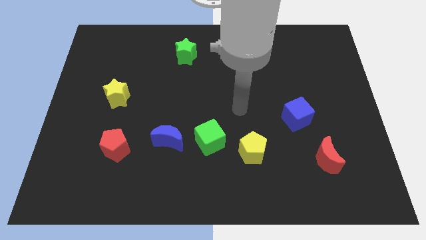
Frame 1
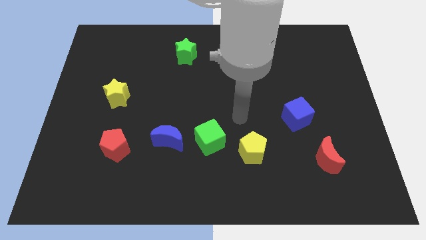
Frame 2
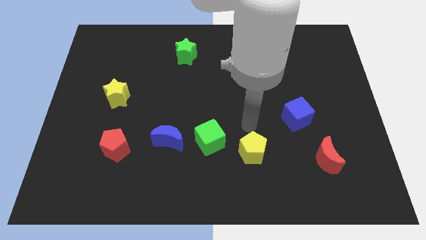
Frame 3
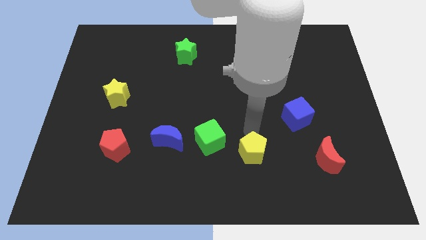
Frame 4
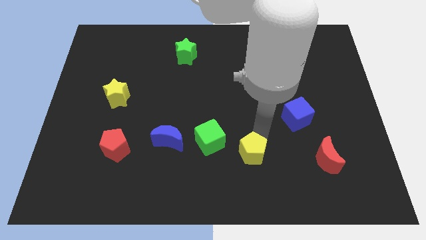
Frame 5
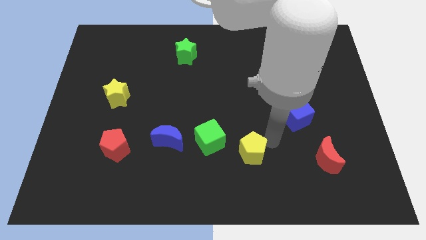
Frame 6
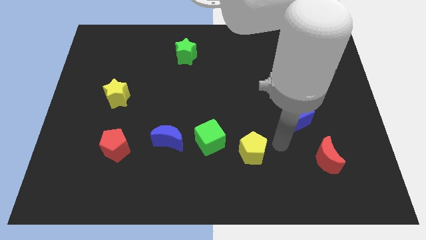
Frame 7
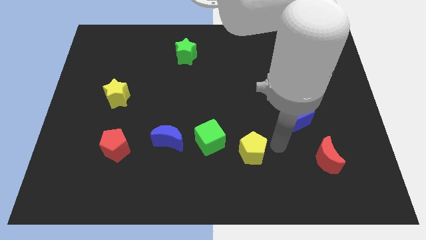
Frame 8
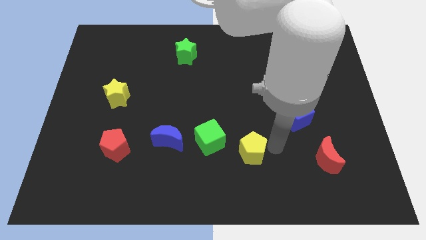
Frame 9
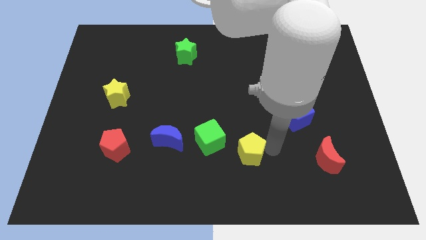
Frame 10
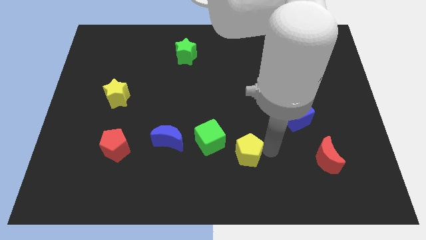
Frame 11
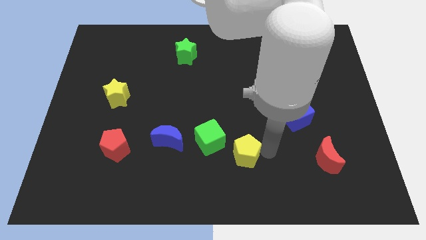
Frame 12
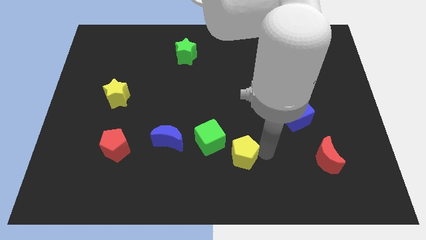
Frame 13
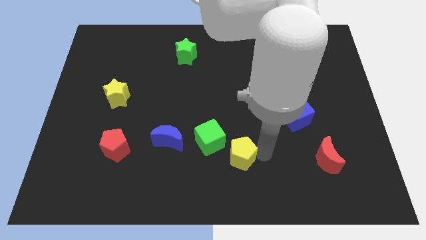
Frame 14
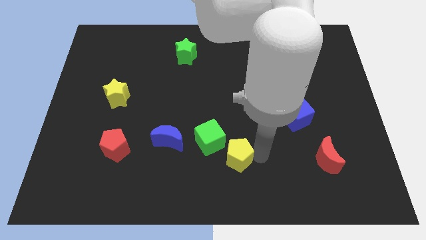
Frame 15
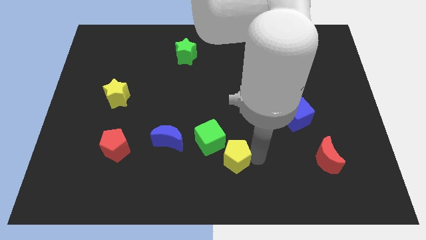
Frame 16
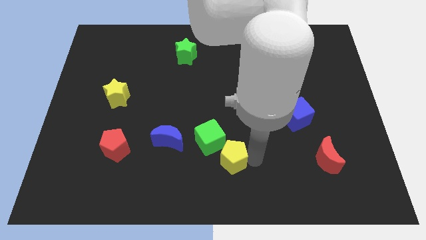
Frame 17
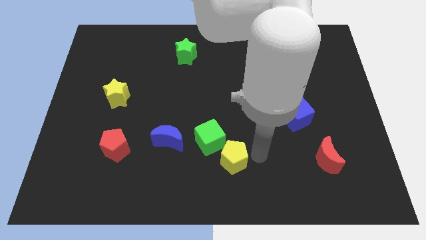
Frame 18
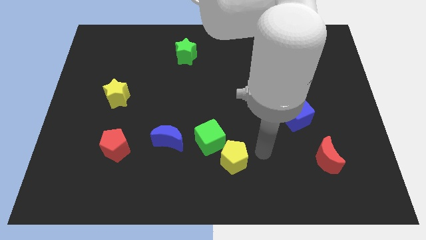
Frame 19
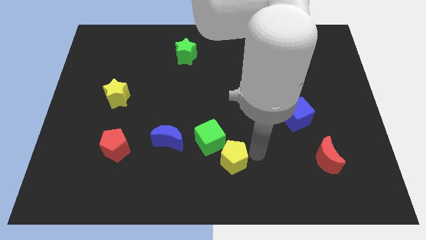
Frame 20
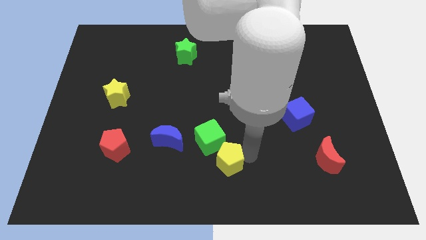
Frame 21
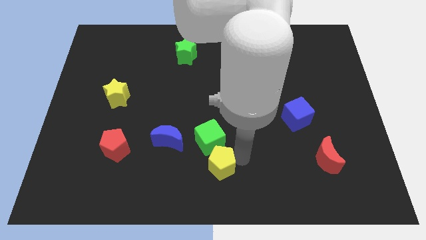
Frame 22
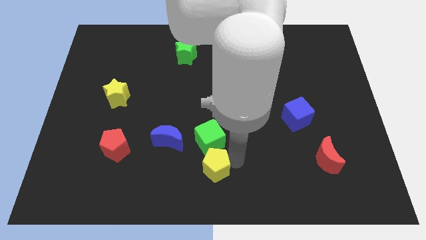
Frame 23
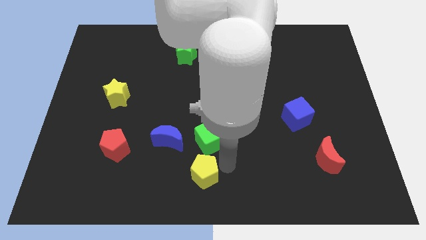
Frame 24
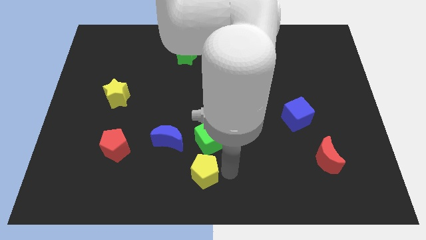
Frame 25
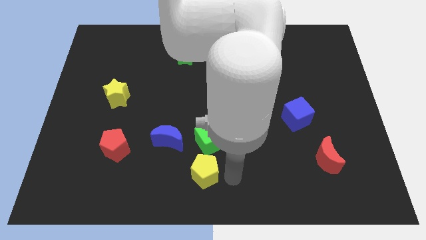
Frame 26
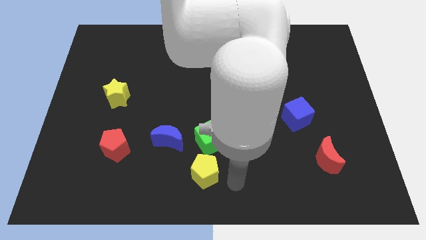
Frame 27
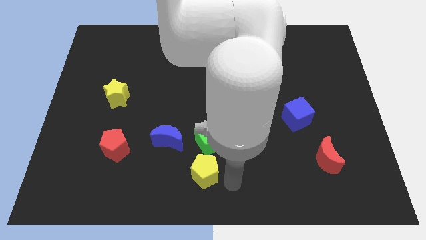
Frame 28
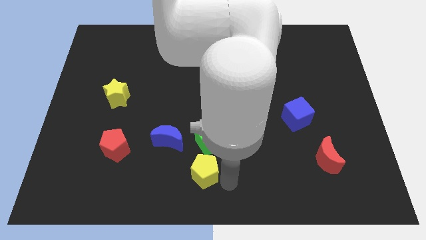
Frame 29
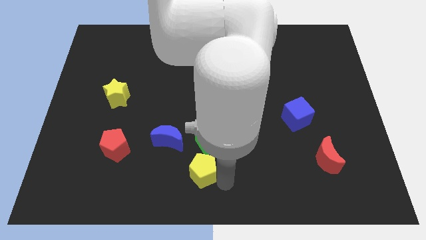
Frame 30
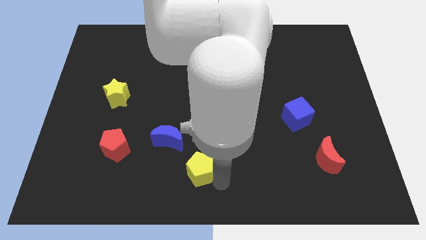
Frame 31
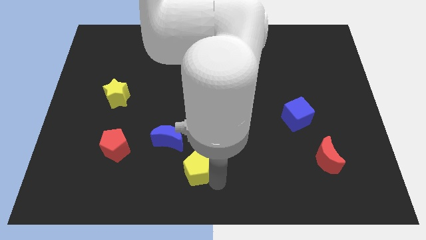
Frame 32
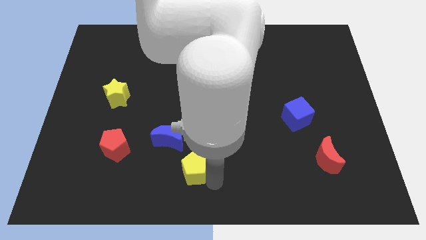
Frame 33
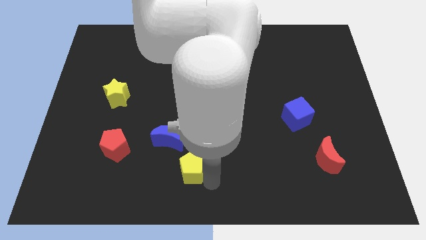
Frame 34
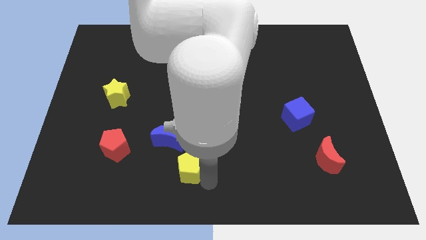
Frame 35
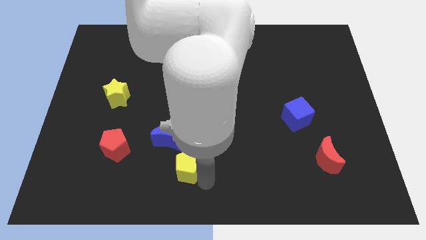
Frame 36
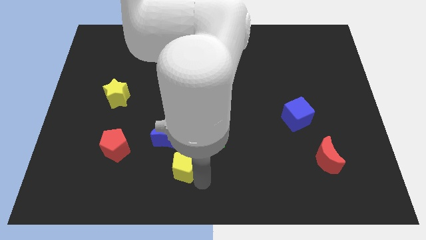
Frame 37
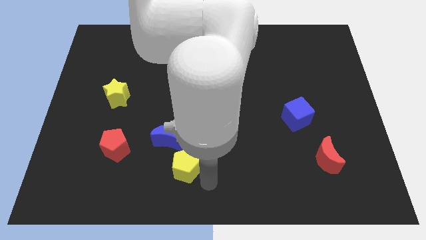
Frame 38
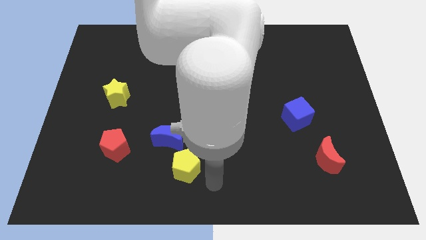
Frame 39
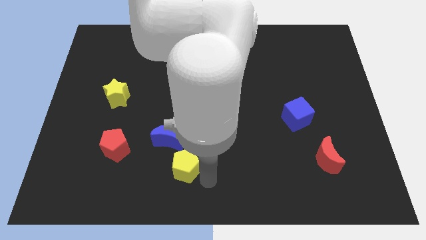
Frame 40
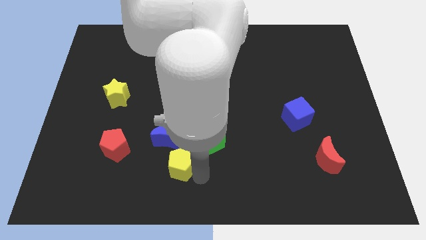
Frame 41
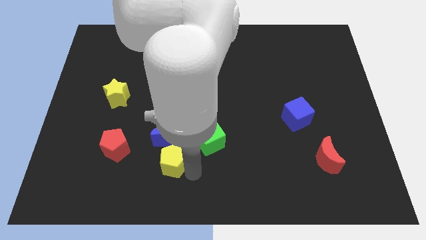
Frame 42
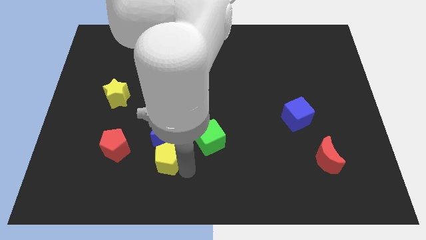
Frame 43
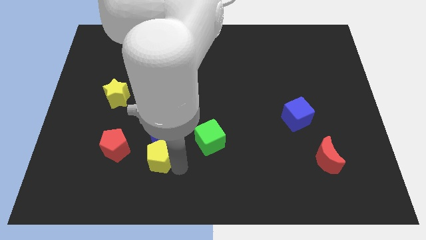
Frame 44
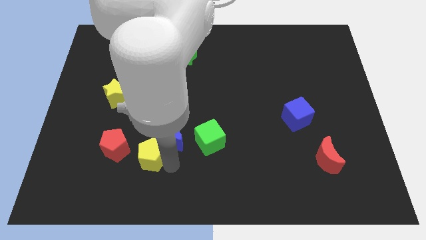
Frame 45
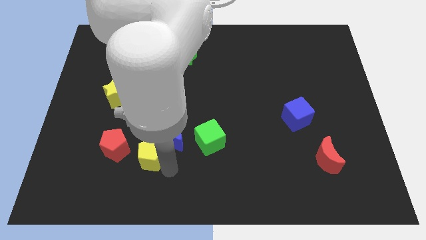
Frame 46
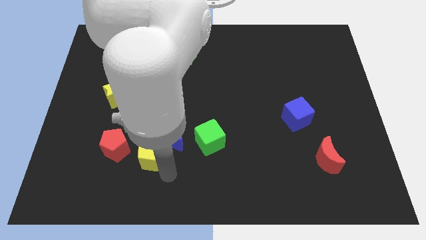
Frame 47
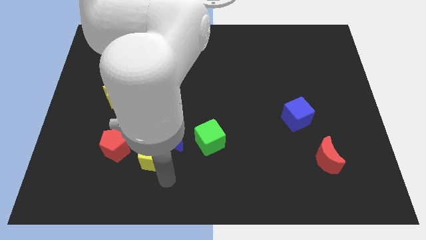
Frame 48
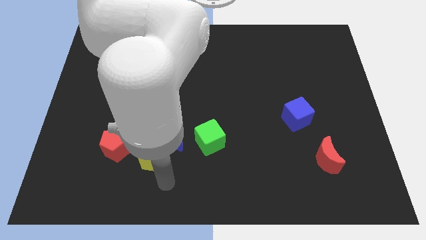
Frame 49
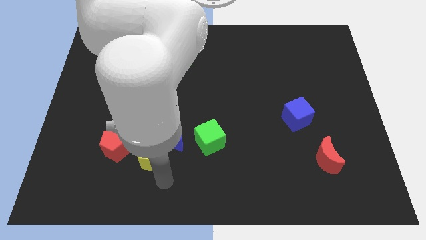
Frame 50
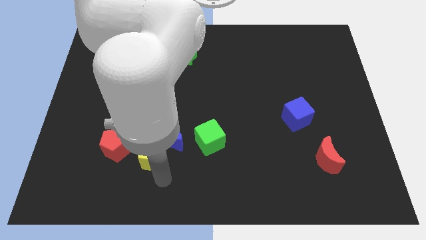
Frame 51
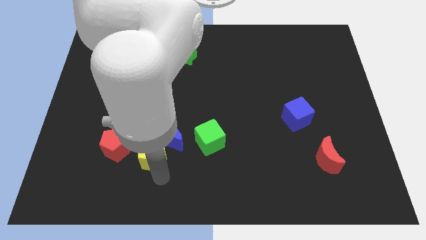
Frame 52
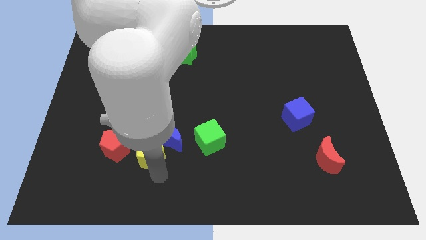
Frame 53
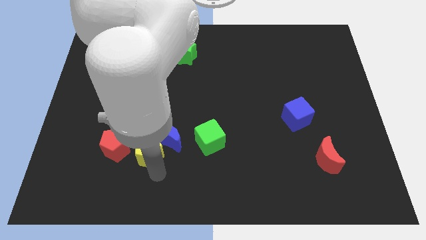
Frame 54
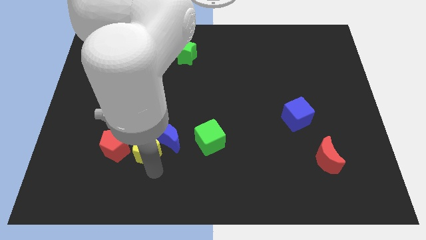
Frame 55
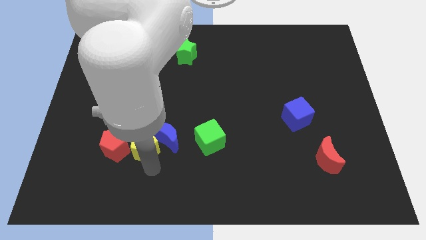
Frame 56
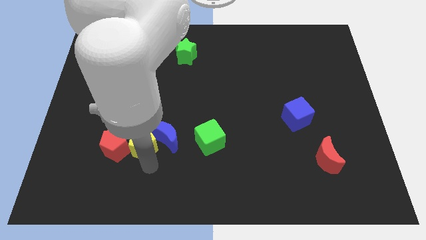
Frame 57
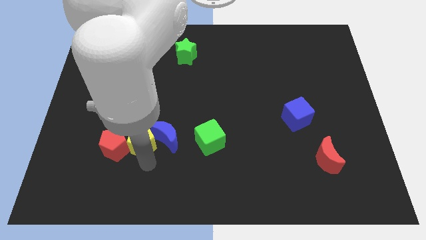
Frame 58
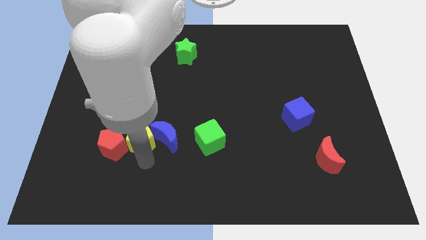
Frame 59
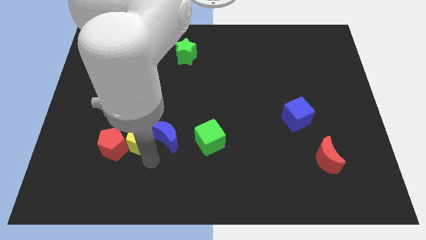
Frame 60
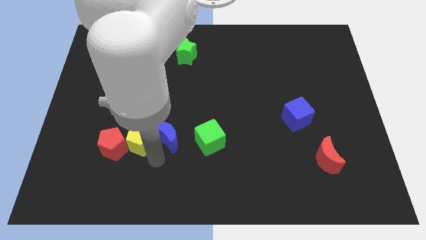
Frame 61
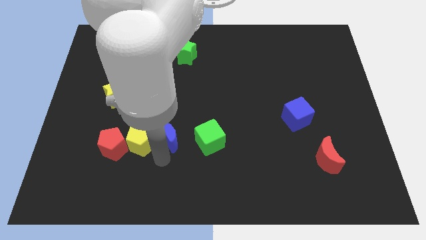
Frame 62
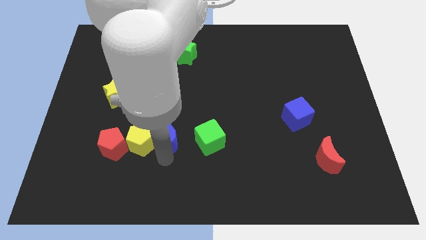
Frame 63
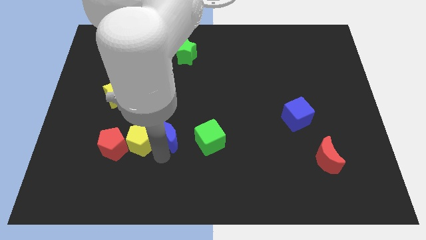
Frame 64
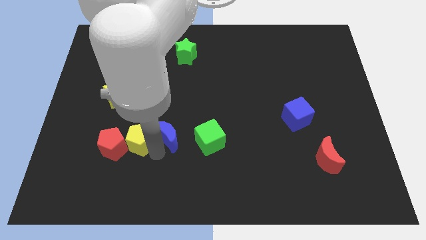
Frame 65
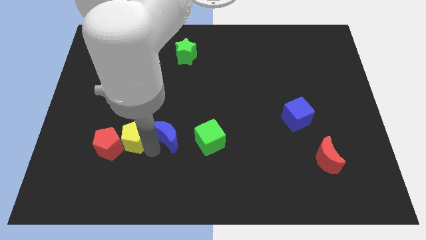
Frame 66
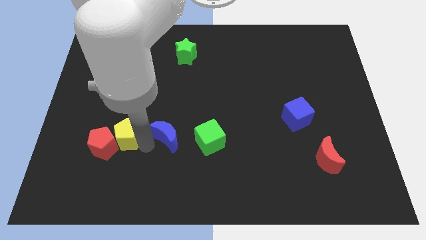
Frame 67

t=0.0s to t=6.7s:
slide the yellow pentagon to the bottom side of the yellow star
